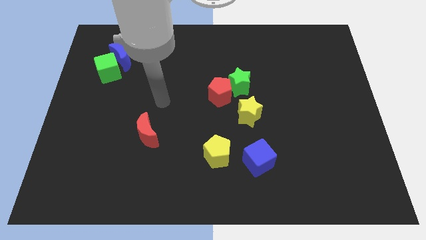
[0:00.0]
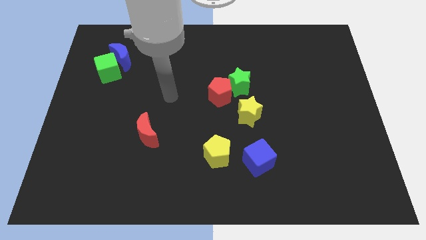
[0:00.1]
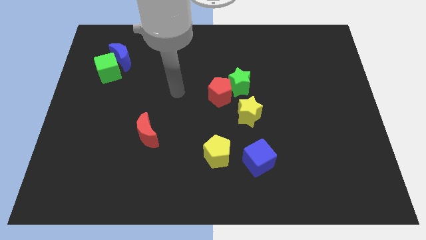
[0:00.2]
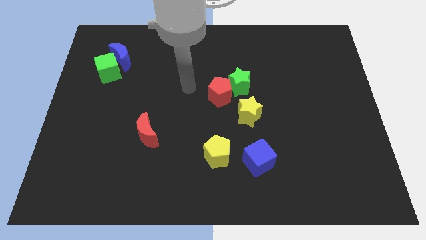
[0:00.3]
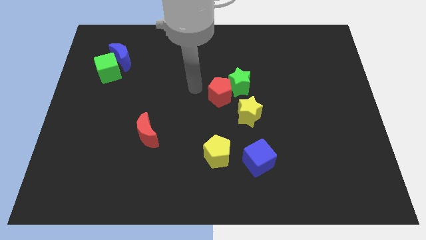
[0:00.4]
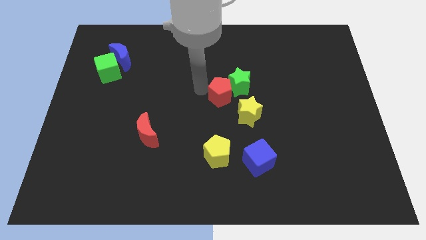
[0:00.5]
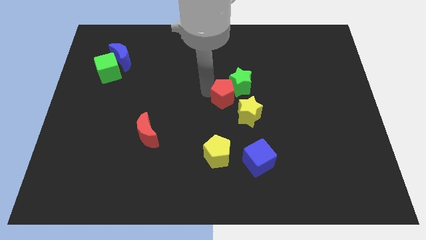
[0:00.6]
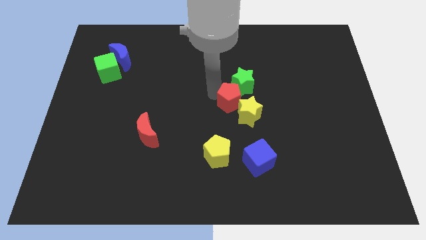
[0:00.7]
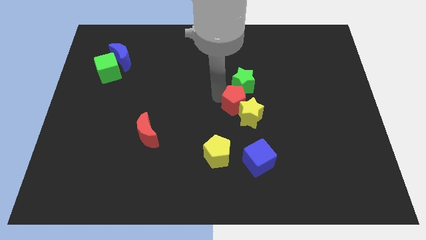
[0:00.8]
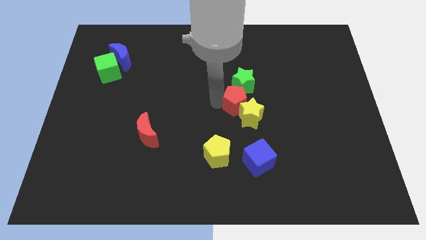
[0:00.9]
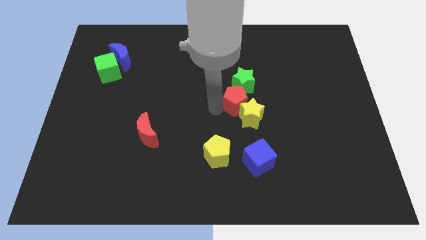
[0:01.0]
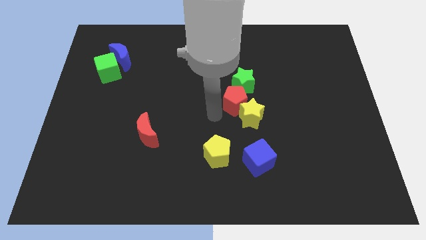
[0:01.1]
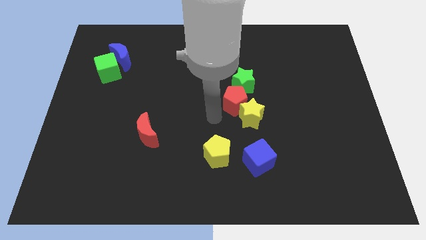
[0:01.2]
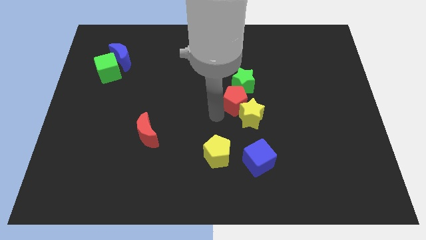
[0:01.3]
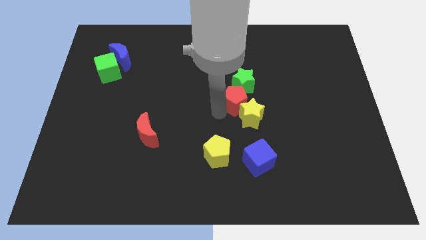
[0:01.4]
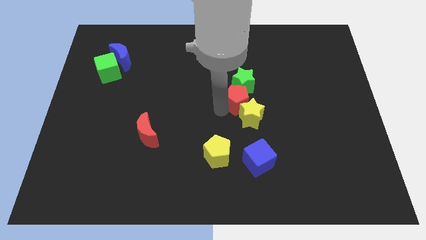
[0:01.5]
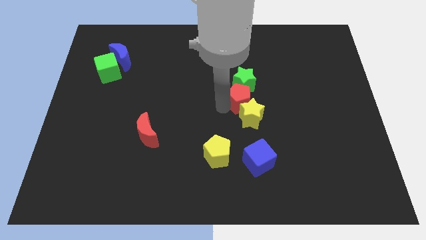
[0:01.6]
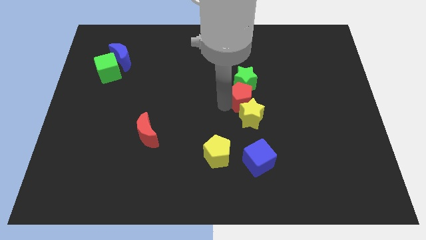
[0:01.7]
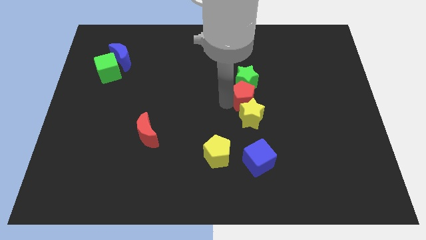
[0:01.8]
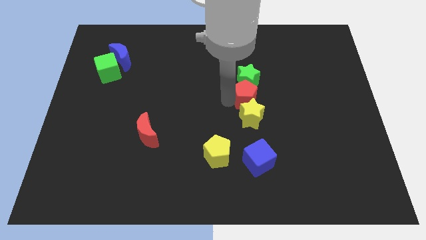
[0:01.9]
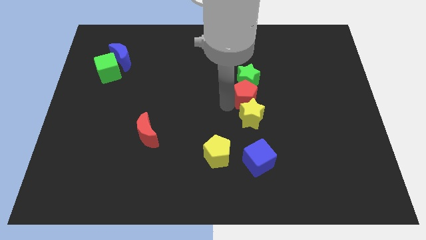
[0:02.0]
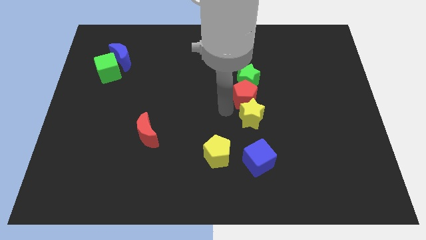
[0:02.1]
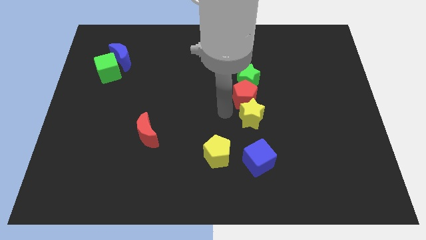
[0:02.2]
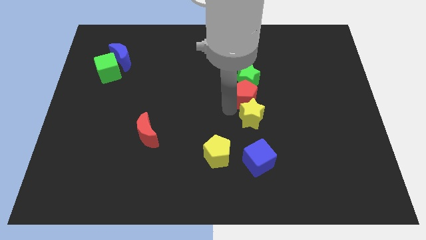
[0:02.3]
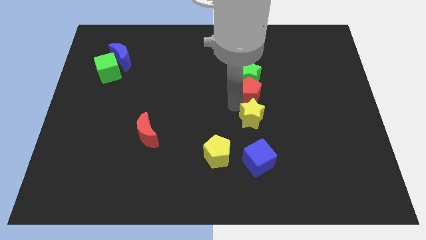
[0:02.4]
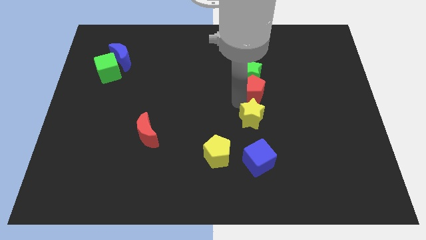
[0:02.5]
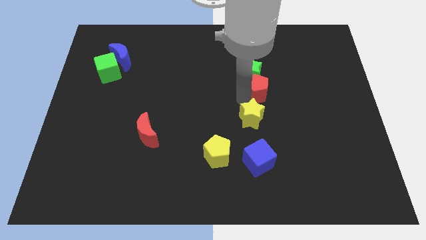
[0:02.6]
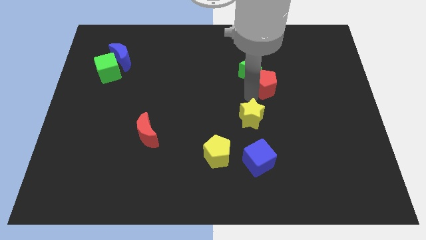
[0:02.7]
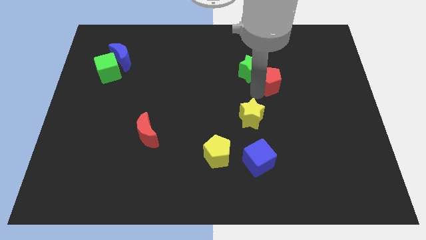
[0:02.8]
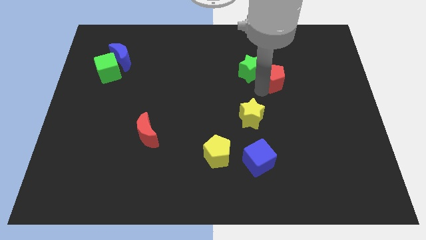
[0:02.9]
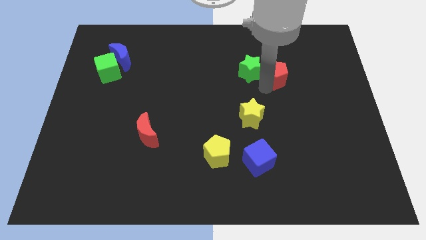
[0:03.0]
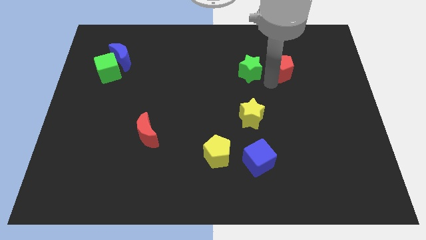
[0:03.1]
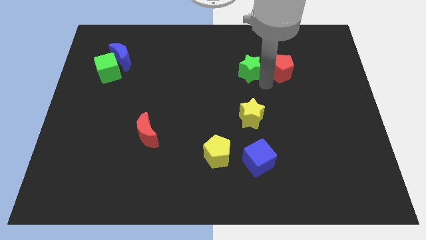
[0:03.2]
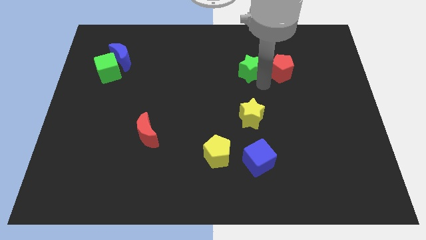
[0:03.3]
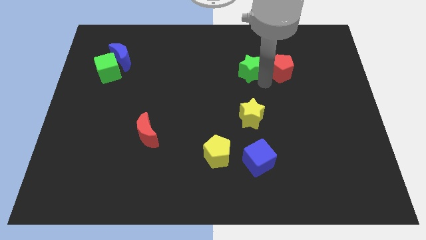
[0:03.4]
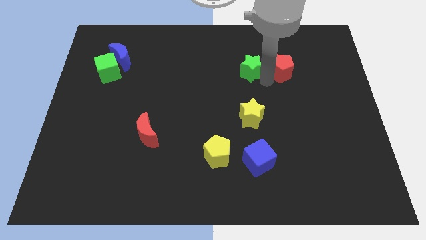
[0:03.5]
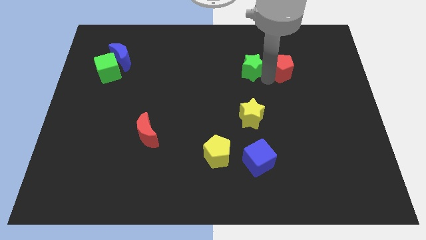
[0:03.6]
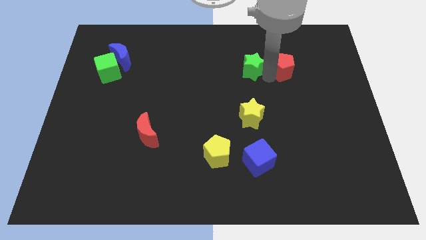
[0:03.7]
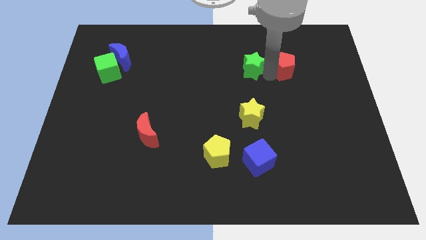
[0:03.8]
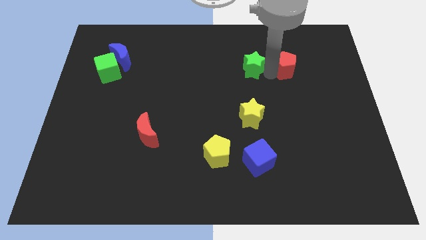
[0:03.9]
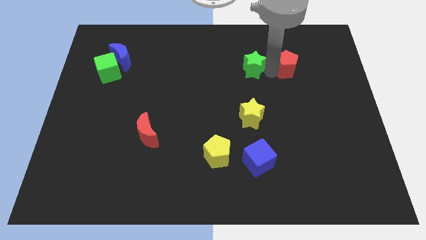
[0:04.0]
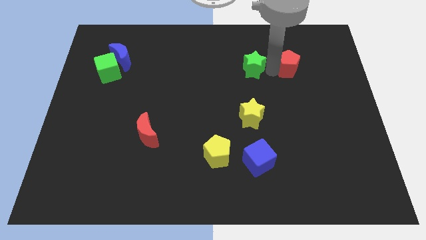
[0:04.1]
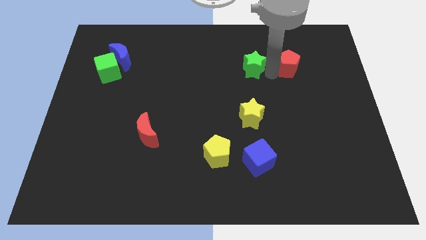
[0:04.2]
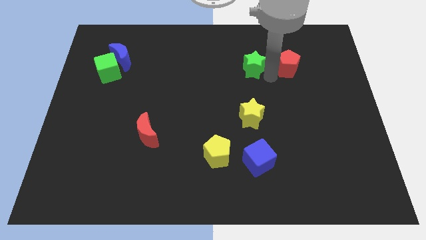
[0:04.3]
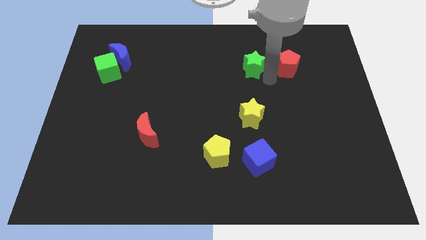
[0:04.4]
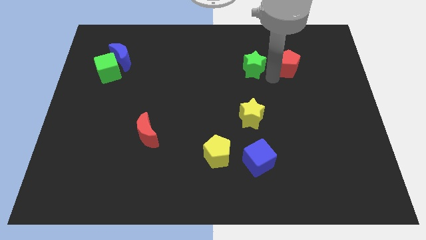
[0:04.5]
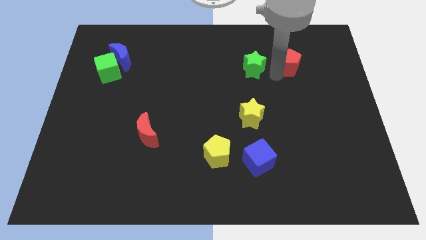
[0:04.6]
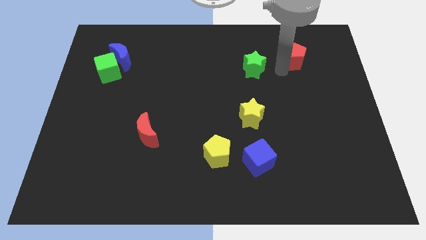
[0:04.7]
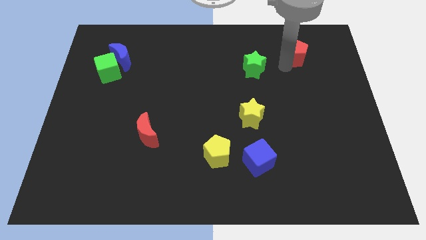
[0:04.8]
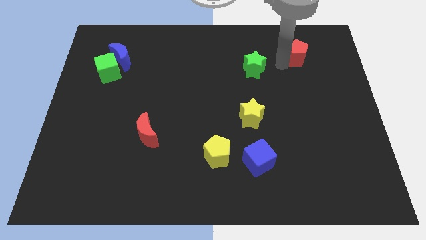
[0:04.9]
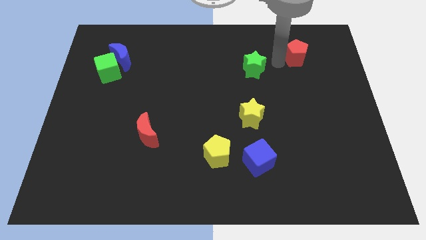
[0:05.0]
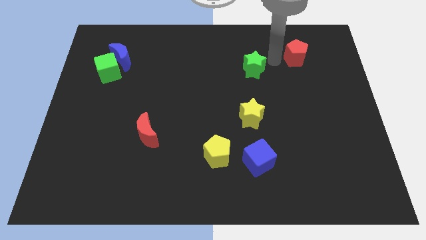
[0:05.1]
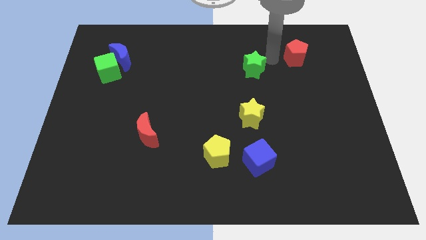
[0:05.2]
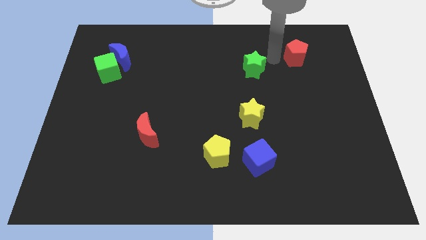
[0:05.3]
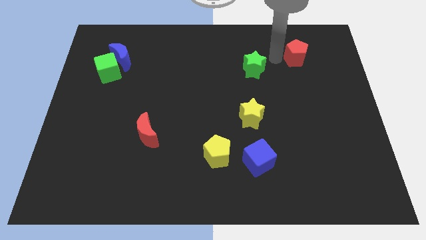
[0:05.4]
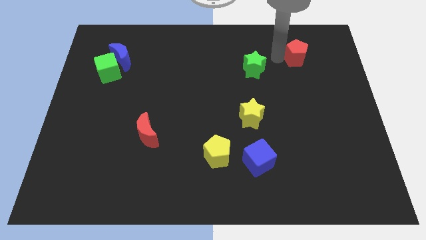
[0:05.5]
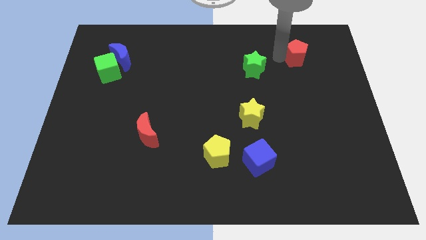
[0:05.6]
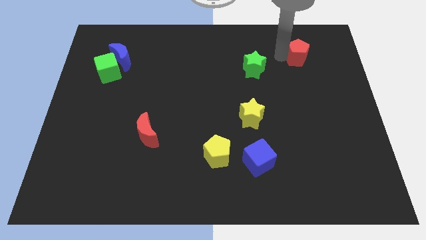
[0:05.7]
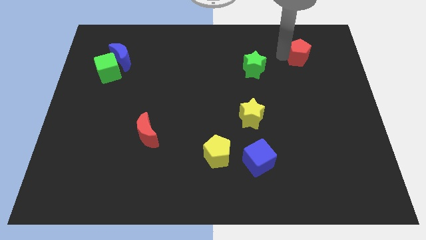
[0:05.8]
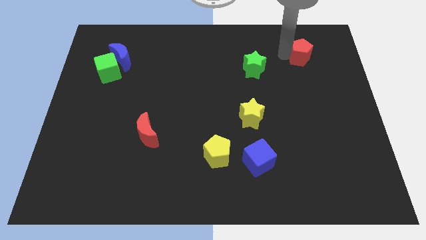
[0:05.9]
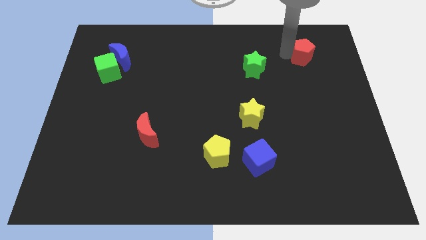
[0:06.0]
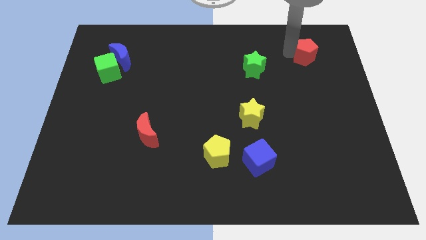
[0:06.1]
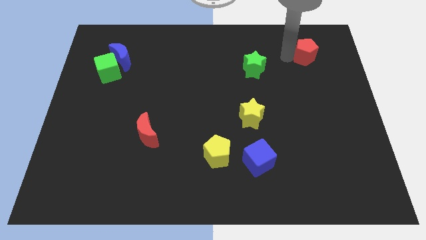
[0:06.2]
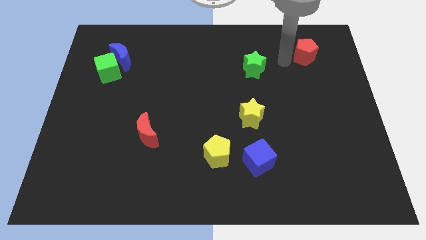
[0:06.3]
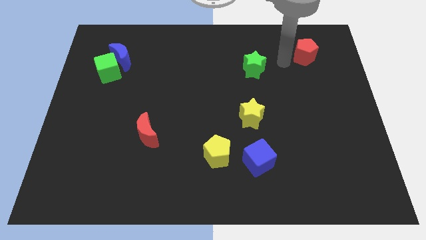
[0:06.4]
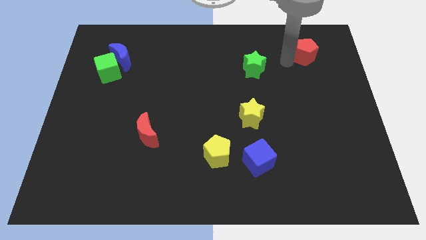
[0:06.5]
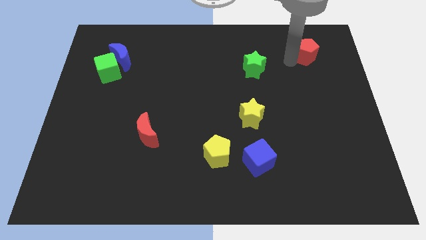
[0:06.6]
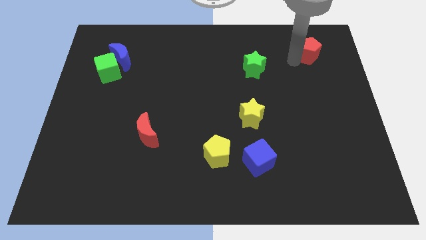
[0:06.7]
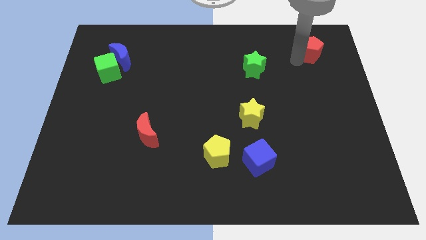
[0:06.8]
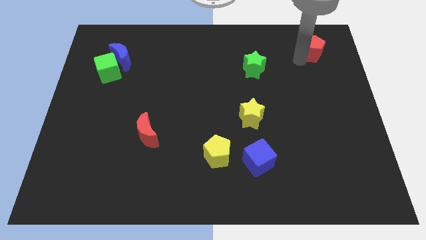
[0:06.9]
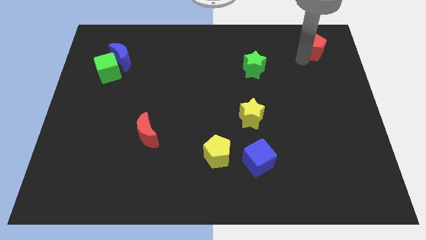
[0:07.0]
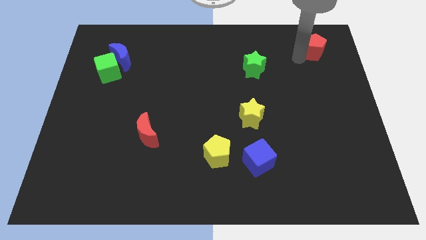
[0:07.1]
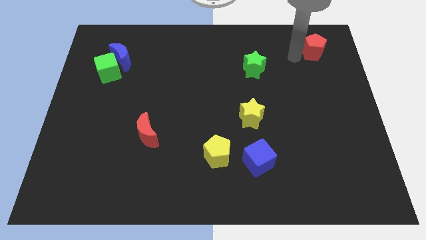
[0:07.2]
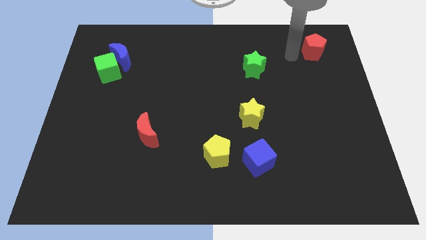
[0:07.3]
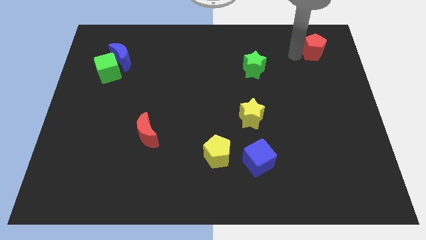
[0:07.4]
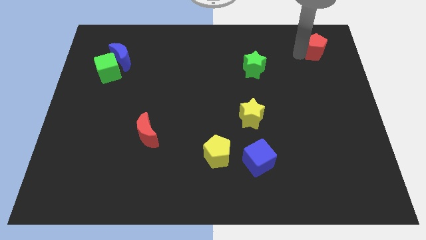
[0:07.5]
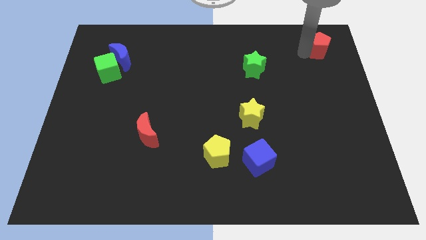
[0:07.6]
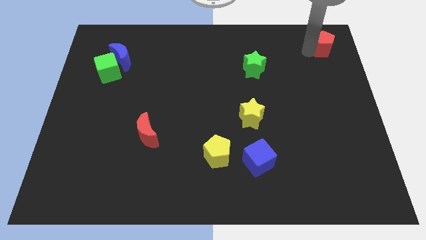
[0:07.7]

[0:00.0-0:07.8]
push the red pentagon to the top right corner
